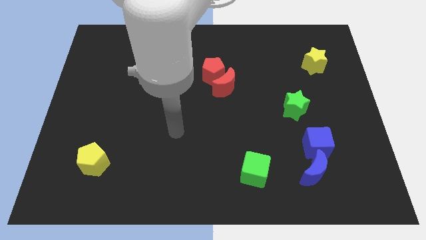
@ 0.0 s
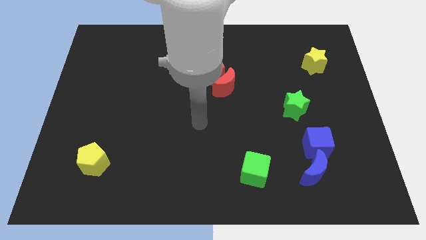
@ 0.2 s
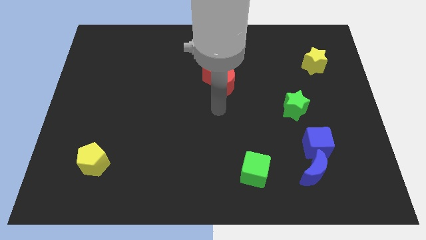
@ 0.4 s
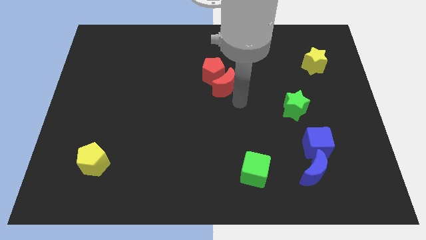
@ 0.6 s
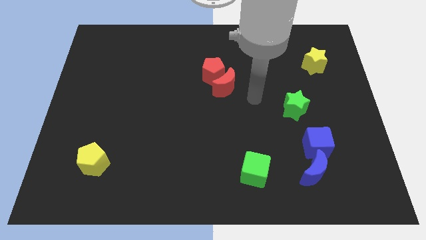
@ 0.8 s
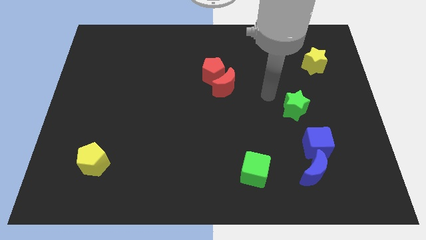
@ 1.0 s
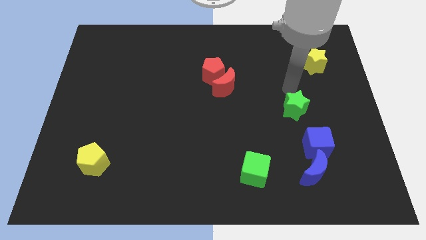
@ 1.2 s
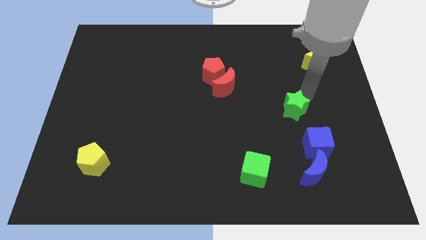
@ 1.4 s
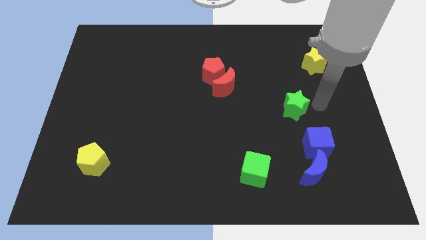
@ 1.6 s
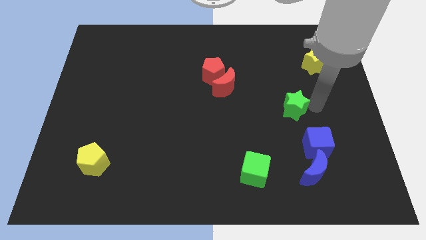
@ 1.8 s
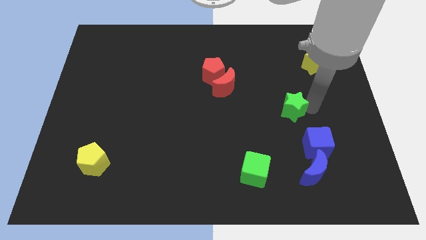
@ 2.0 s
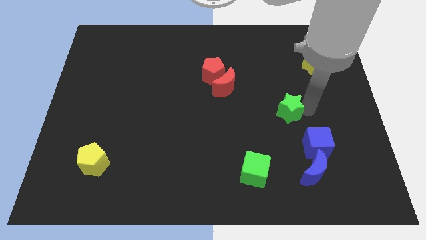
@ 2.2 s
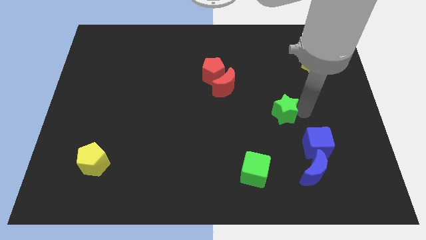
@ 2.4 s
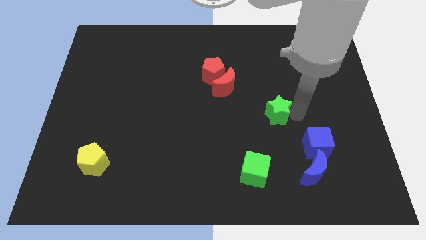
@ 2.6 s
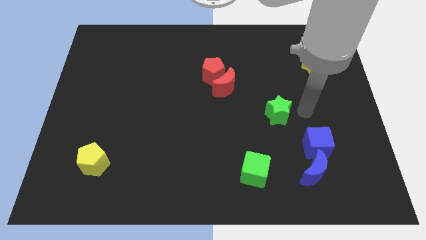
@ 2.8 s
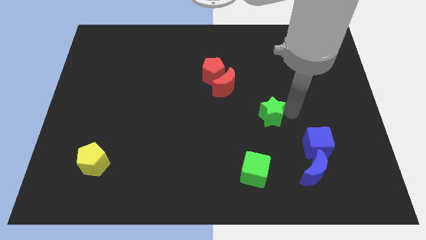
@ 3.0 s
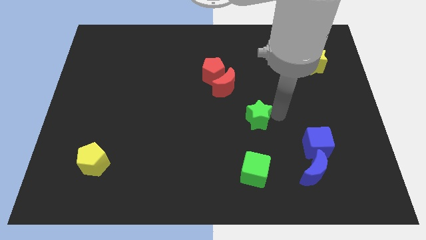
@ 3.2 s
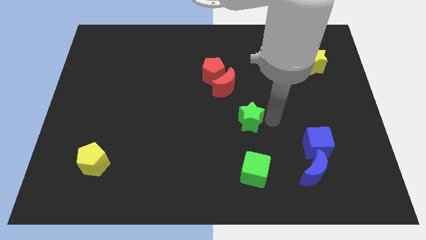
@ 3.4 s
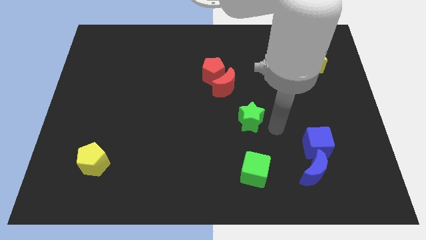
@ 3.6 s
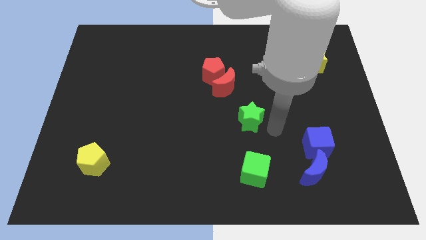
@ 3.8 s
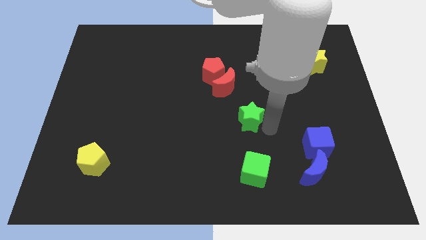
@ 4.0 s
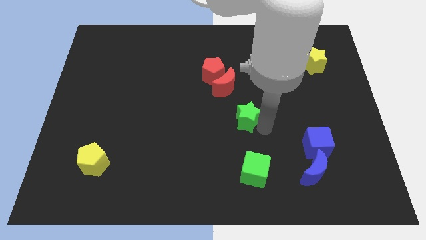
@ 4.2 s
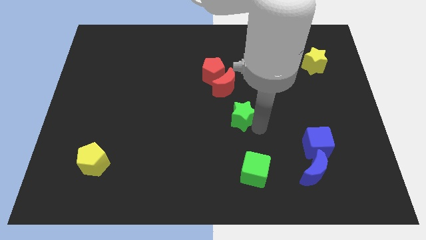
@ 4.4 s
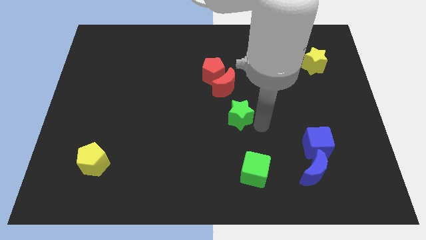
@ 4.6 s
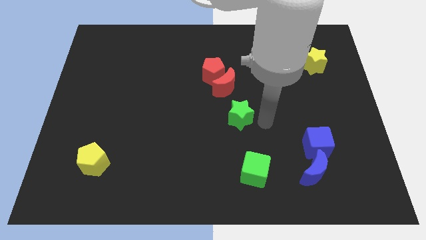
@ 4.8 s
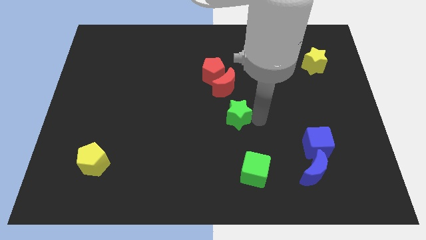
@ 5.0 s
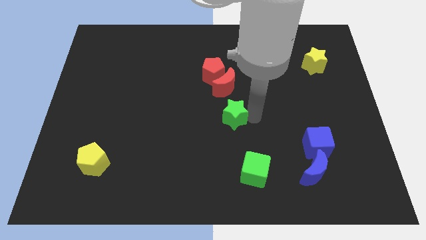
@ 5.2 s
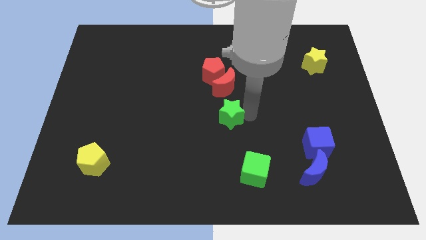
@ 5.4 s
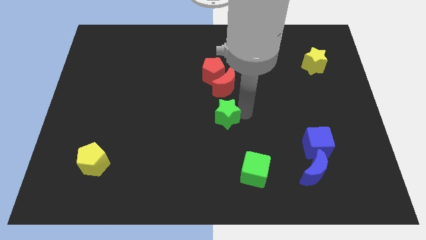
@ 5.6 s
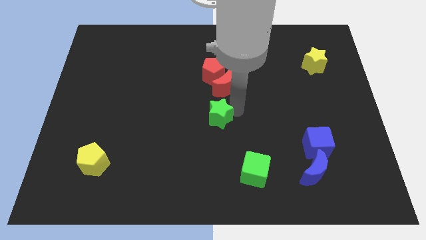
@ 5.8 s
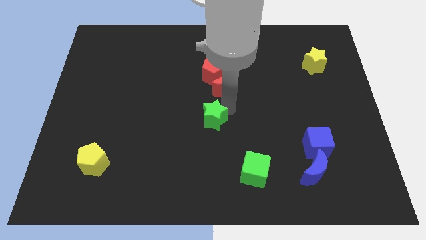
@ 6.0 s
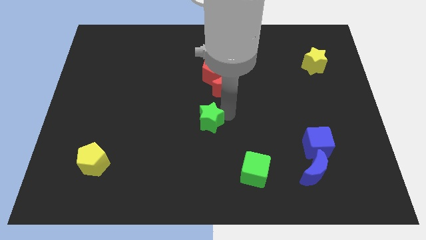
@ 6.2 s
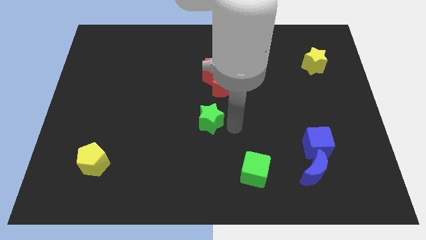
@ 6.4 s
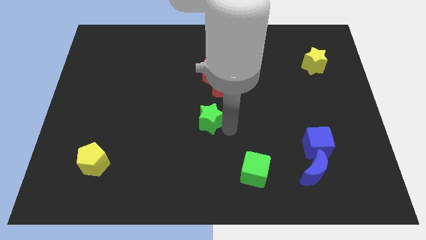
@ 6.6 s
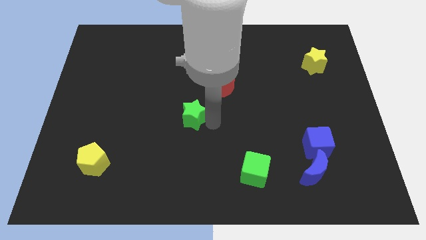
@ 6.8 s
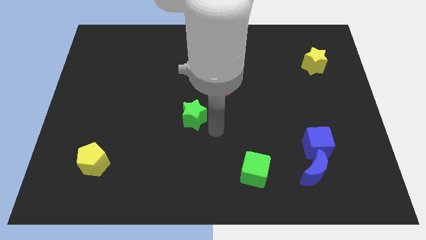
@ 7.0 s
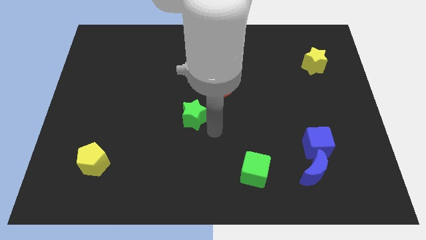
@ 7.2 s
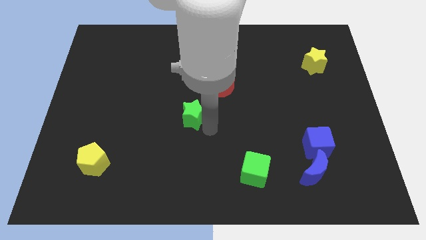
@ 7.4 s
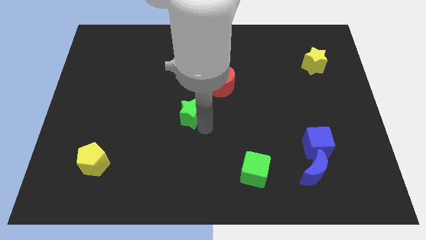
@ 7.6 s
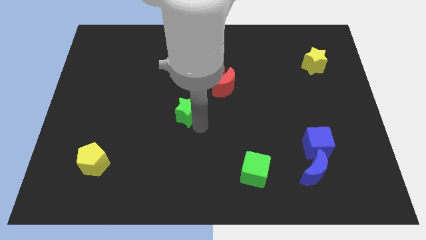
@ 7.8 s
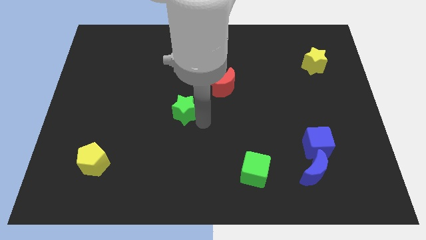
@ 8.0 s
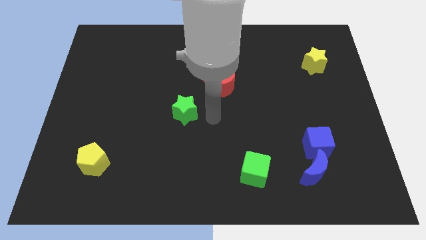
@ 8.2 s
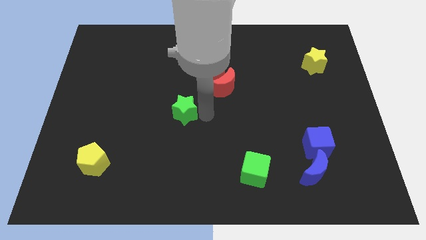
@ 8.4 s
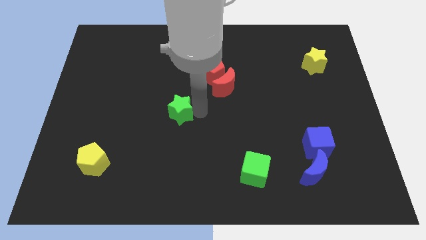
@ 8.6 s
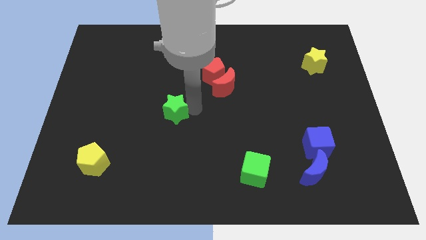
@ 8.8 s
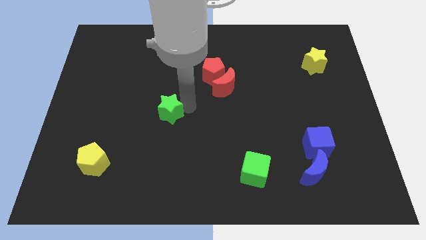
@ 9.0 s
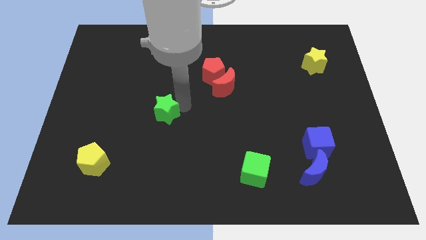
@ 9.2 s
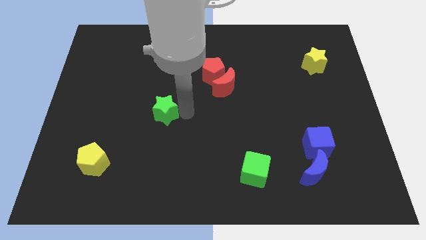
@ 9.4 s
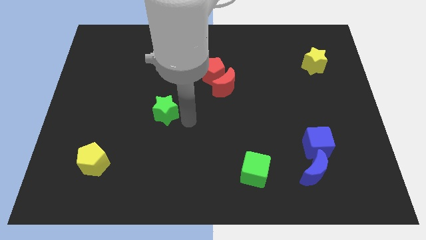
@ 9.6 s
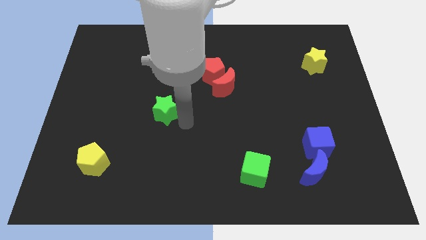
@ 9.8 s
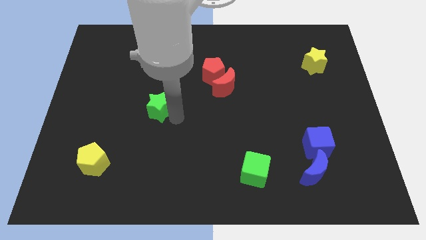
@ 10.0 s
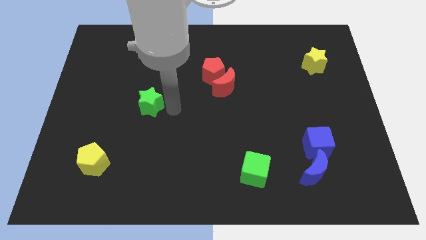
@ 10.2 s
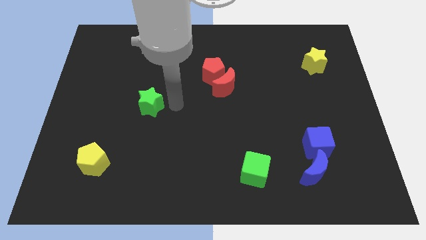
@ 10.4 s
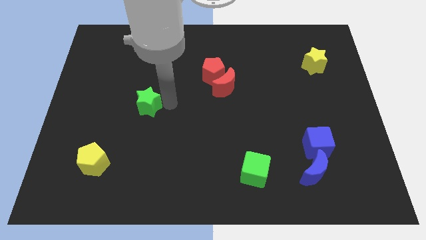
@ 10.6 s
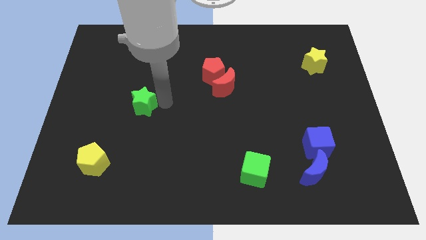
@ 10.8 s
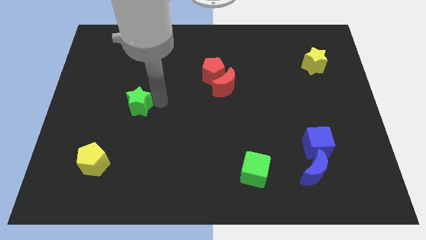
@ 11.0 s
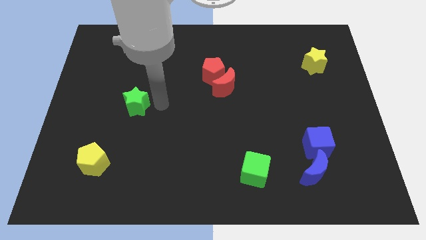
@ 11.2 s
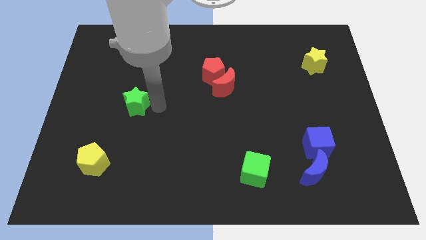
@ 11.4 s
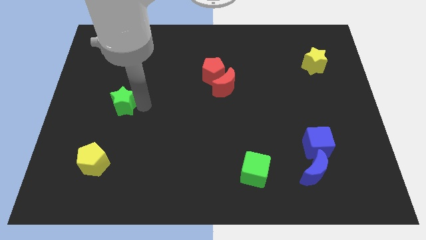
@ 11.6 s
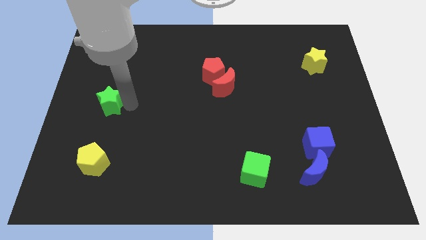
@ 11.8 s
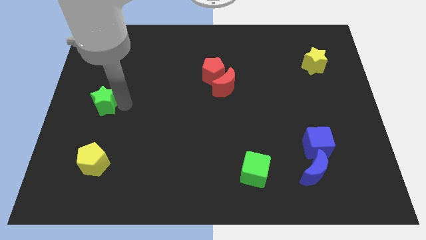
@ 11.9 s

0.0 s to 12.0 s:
slide the green star to the left side of the board
